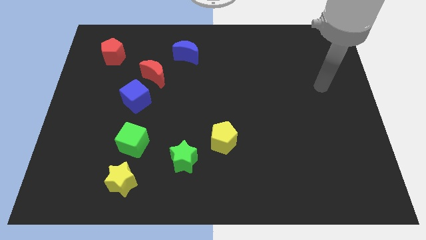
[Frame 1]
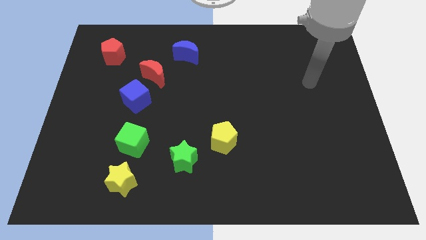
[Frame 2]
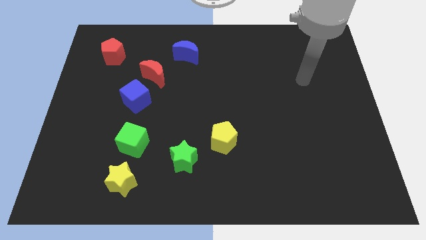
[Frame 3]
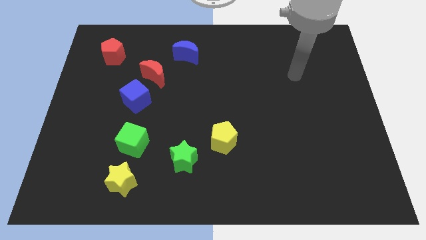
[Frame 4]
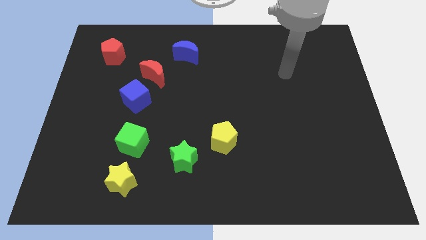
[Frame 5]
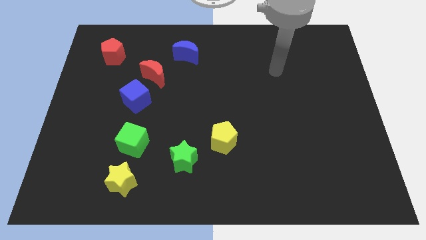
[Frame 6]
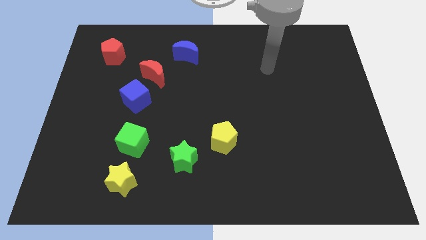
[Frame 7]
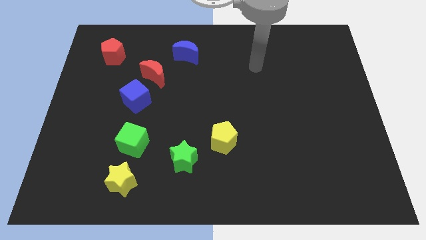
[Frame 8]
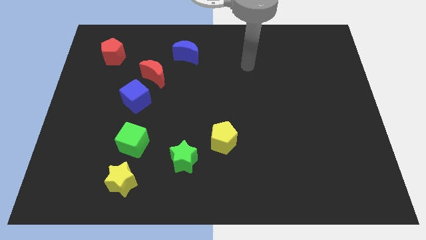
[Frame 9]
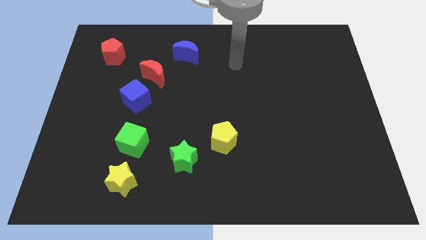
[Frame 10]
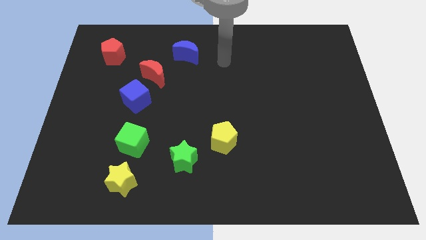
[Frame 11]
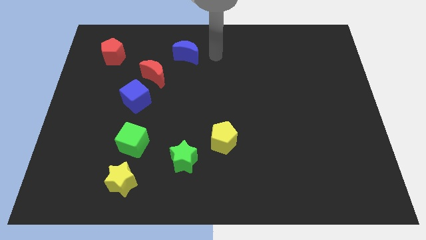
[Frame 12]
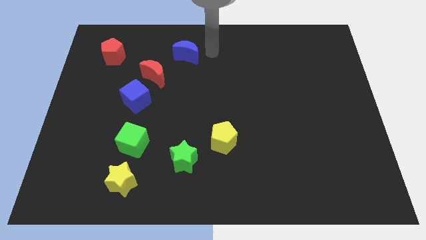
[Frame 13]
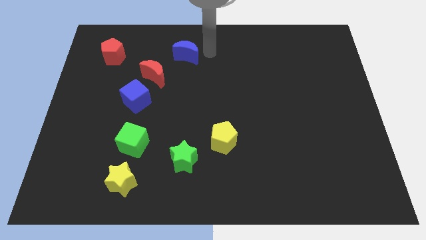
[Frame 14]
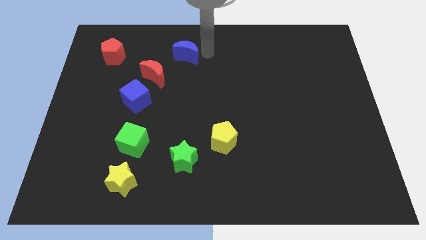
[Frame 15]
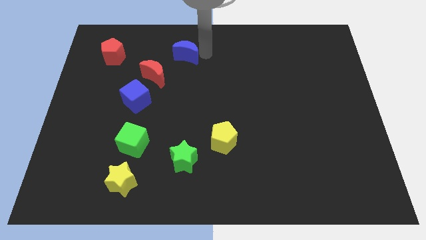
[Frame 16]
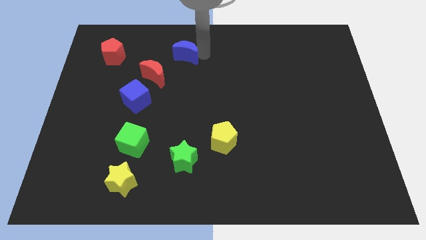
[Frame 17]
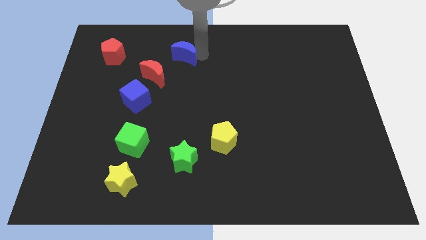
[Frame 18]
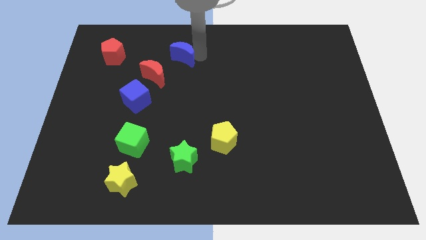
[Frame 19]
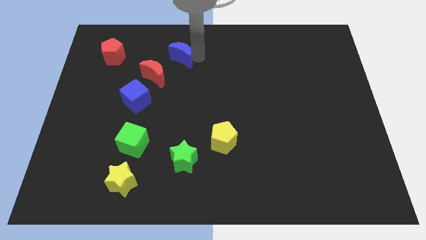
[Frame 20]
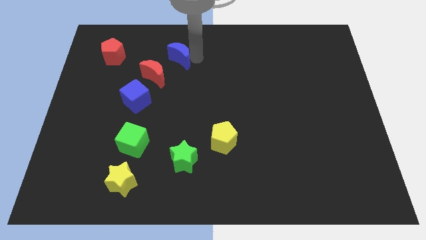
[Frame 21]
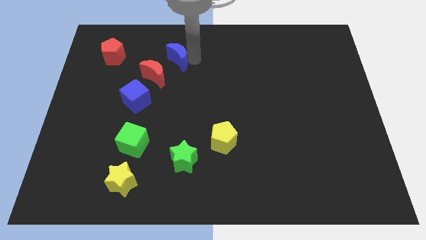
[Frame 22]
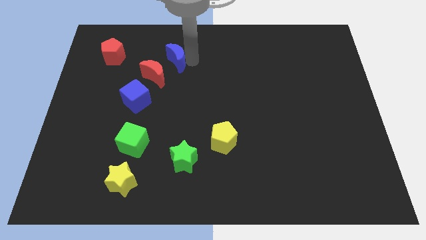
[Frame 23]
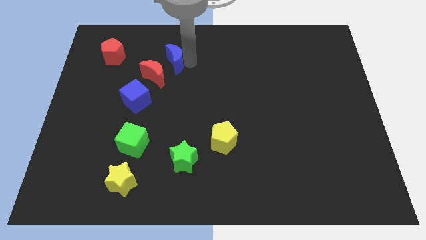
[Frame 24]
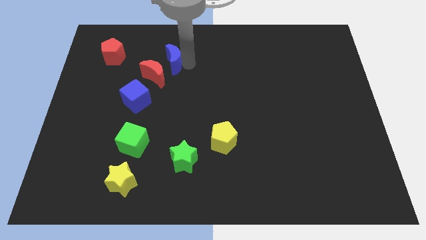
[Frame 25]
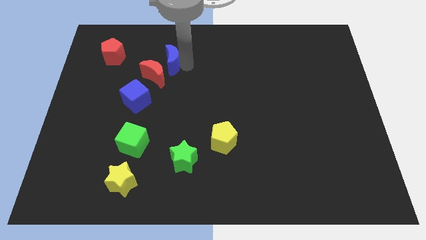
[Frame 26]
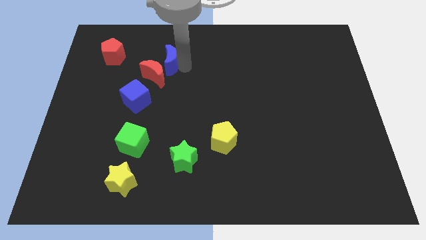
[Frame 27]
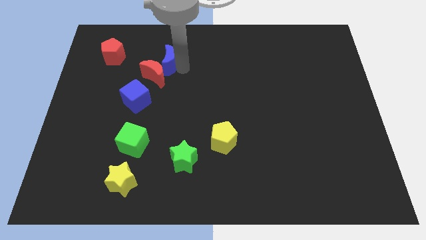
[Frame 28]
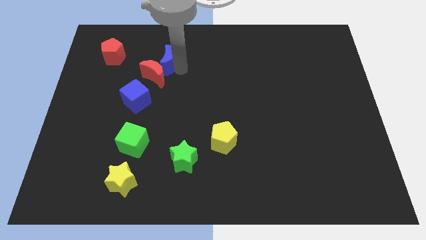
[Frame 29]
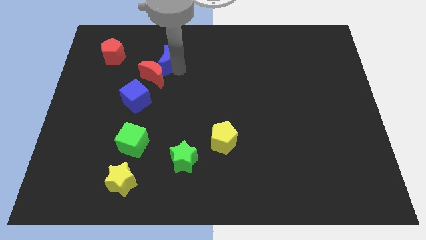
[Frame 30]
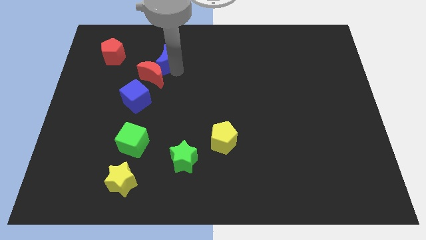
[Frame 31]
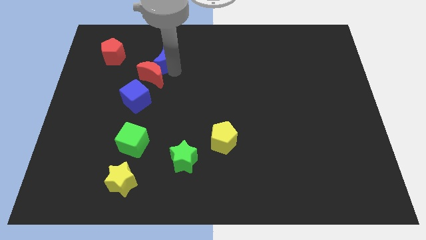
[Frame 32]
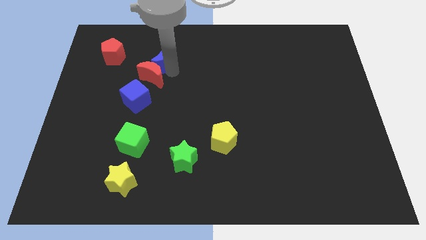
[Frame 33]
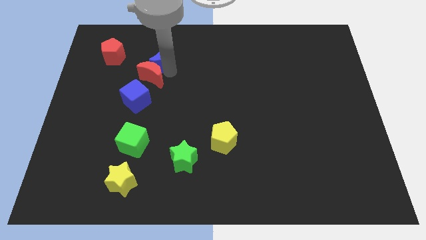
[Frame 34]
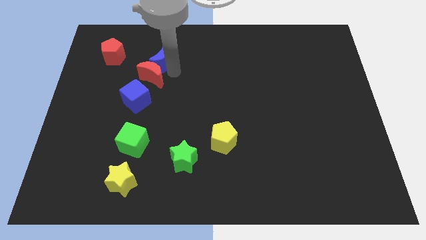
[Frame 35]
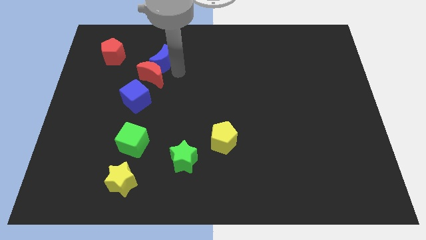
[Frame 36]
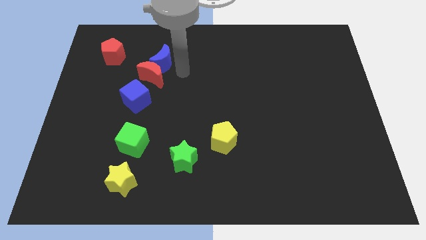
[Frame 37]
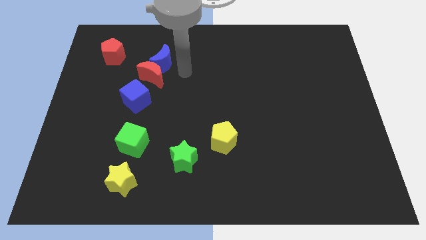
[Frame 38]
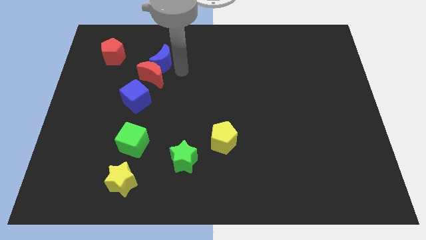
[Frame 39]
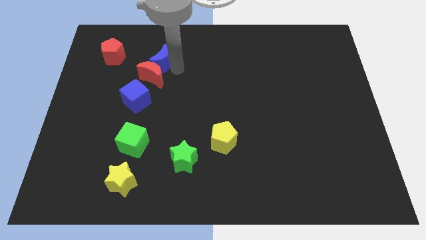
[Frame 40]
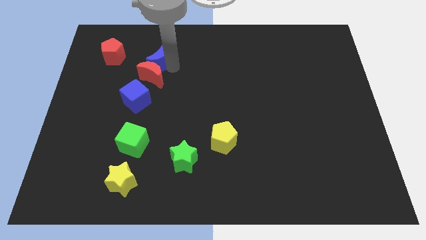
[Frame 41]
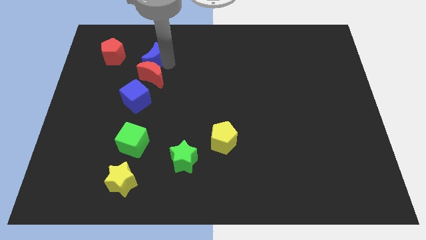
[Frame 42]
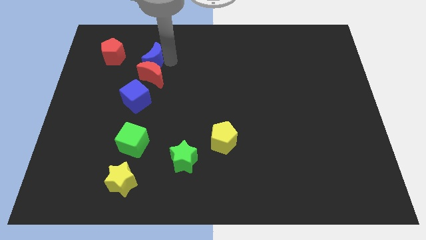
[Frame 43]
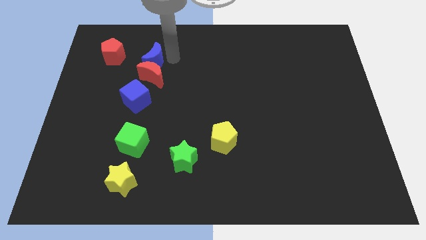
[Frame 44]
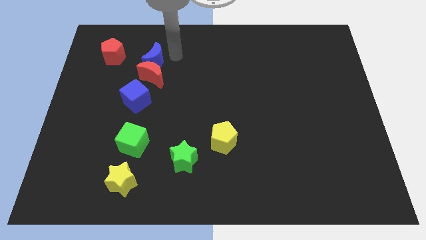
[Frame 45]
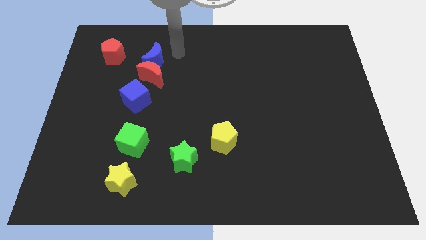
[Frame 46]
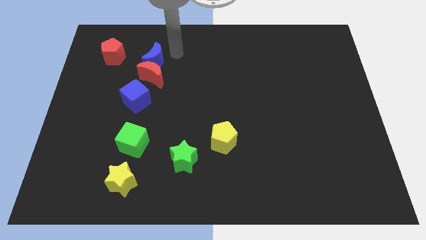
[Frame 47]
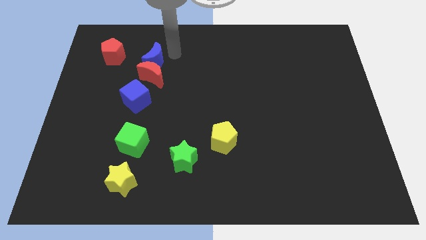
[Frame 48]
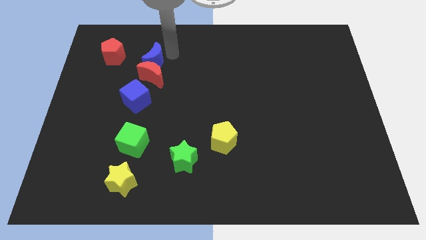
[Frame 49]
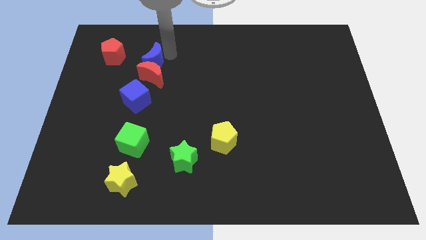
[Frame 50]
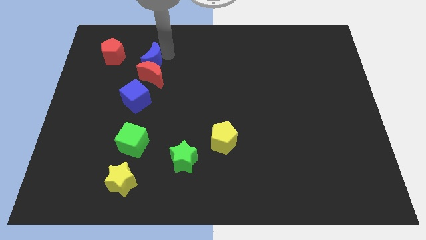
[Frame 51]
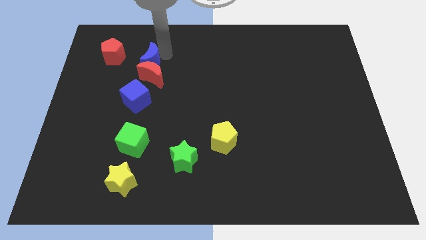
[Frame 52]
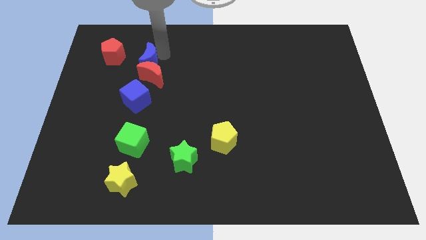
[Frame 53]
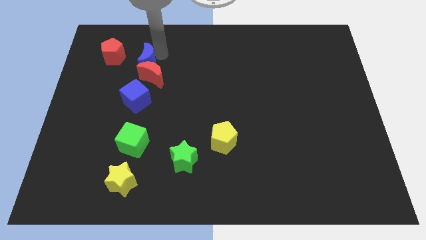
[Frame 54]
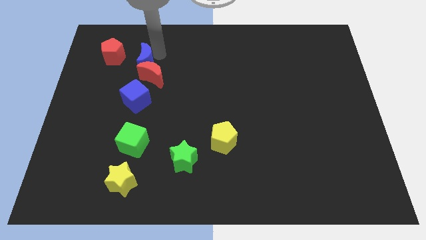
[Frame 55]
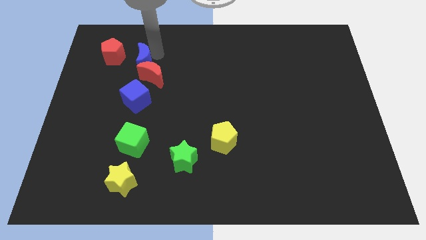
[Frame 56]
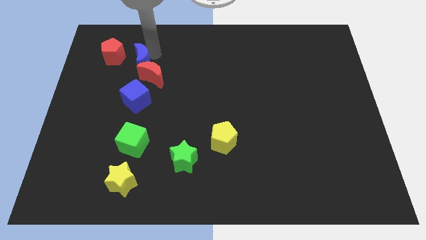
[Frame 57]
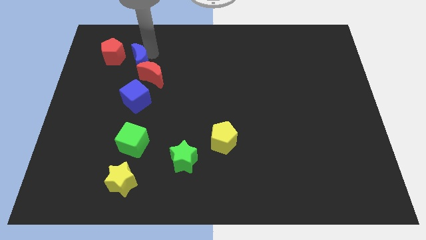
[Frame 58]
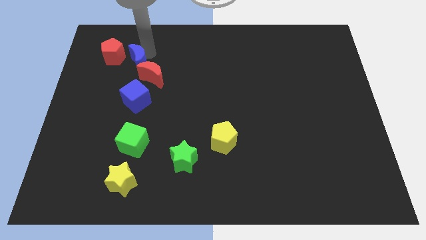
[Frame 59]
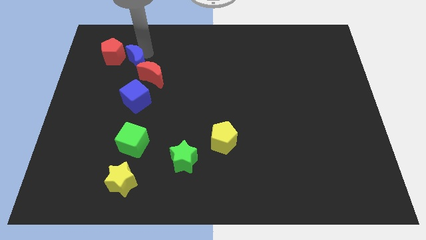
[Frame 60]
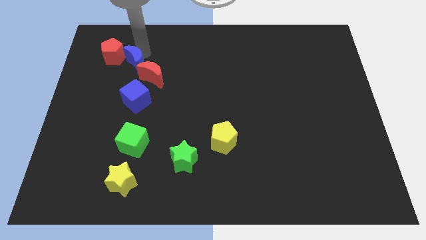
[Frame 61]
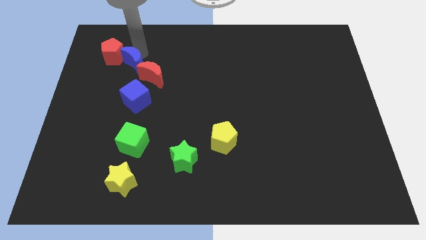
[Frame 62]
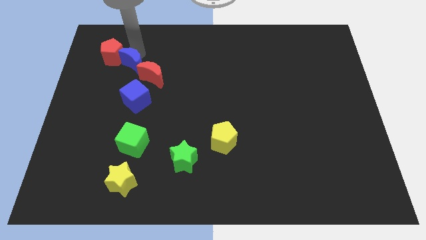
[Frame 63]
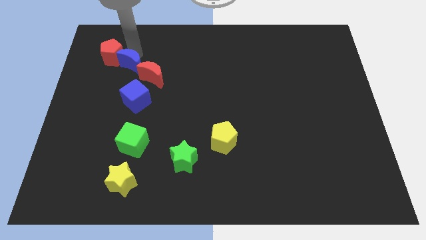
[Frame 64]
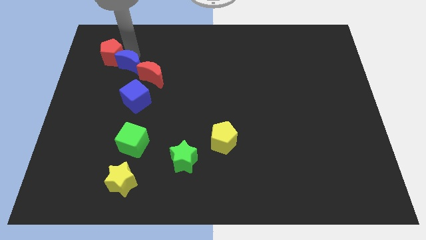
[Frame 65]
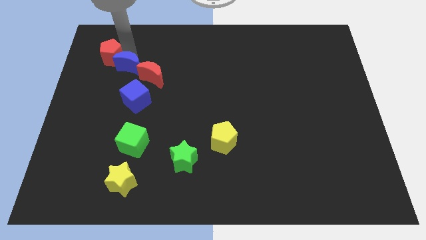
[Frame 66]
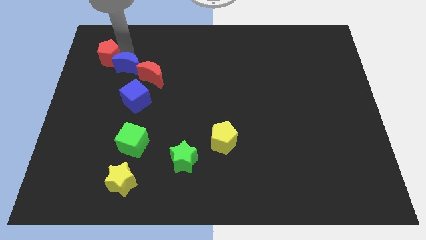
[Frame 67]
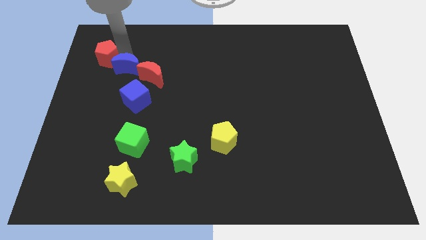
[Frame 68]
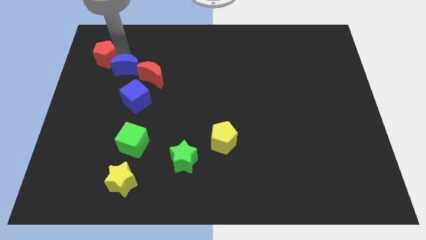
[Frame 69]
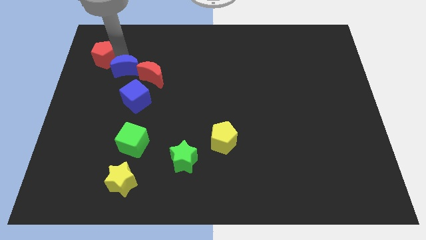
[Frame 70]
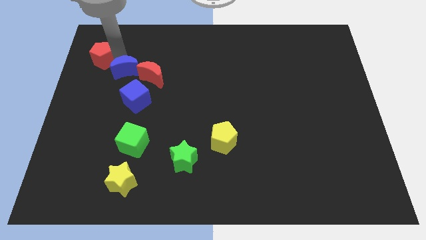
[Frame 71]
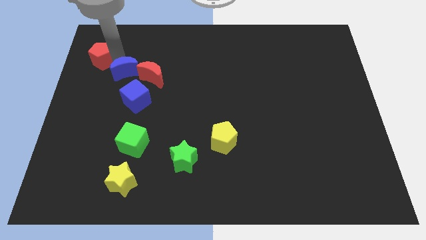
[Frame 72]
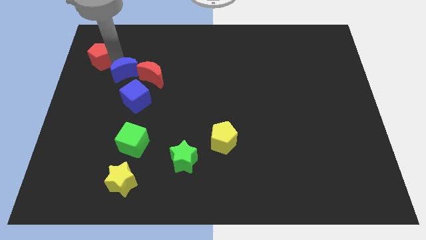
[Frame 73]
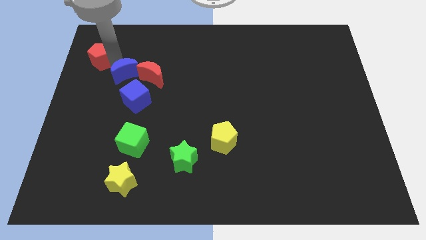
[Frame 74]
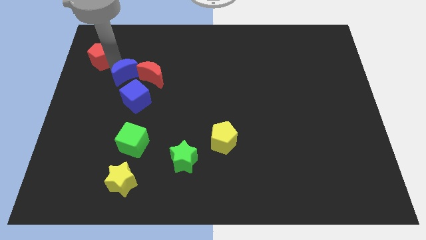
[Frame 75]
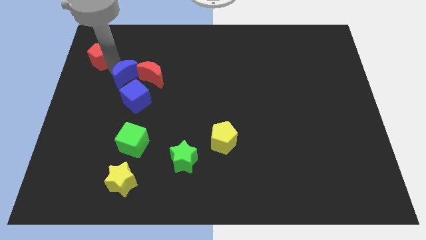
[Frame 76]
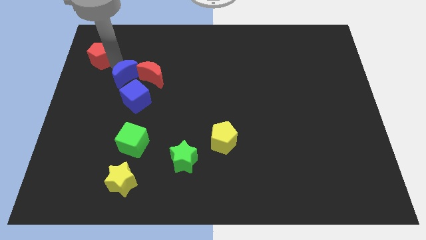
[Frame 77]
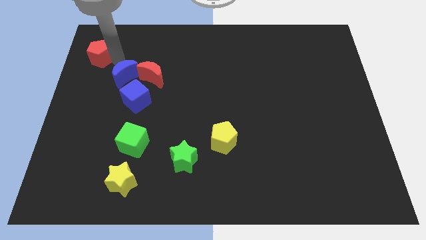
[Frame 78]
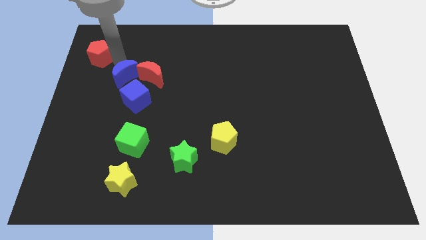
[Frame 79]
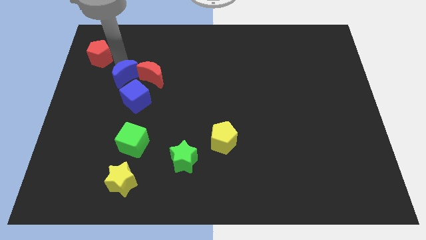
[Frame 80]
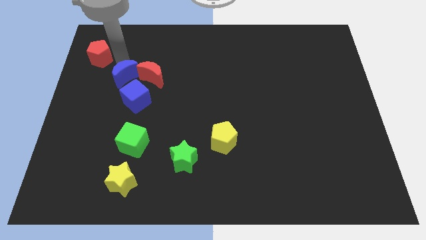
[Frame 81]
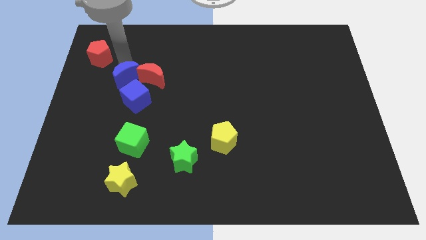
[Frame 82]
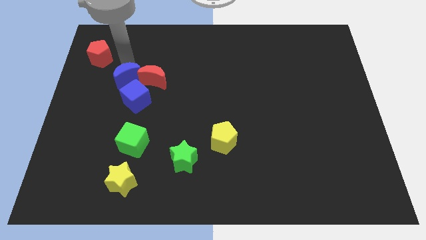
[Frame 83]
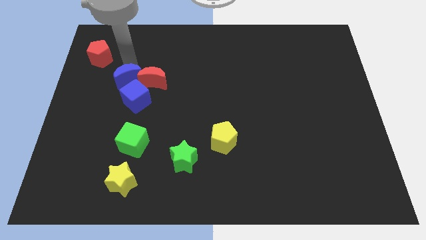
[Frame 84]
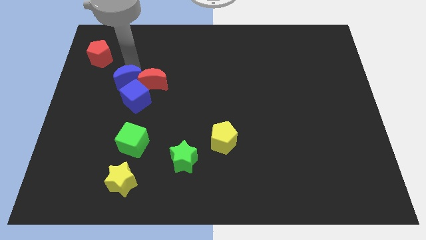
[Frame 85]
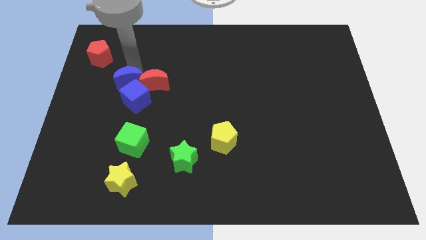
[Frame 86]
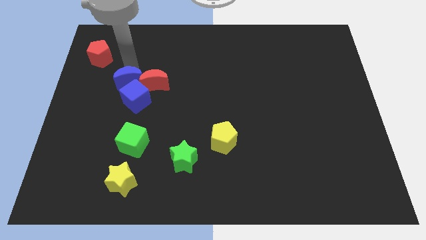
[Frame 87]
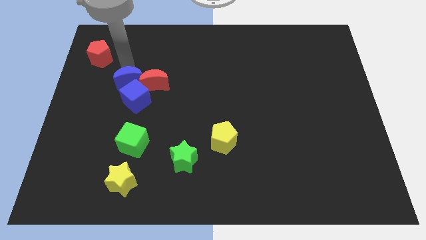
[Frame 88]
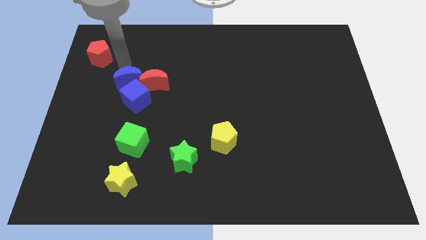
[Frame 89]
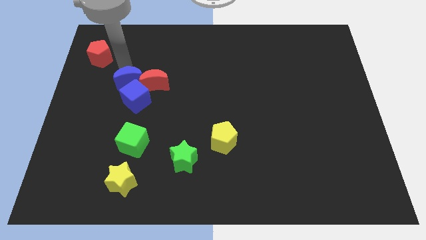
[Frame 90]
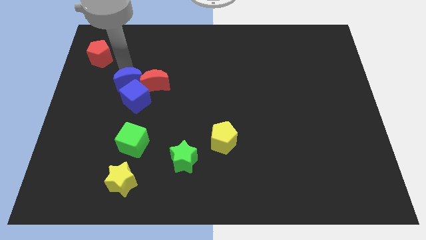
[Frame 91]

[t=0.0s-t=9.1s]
put the blue moon next to the blue cube
